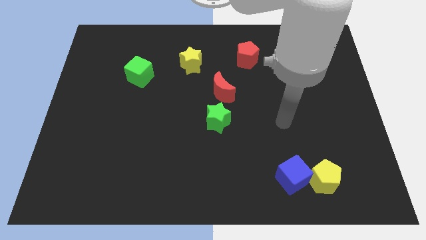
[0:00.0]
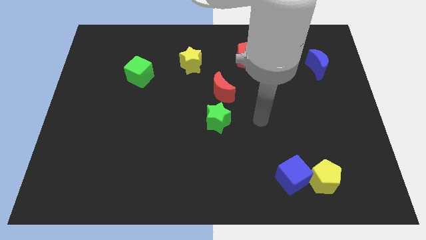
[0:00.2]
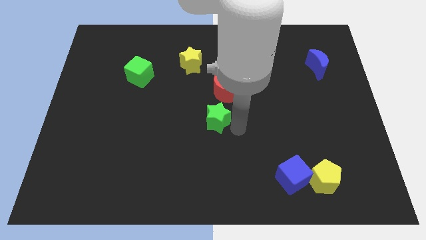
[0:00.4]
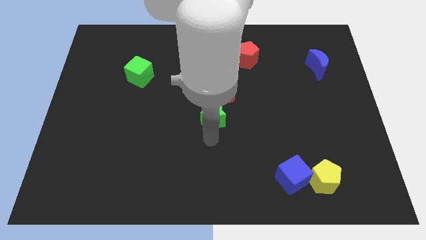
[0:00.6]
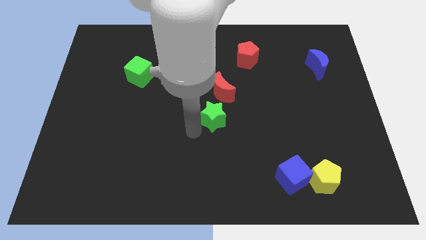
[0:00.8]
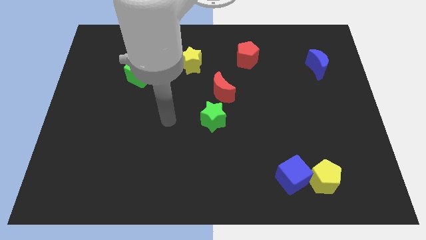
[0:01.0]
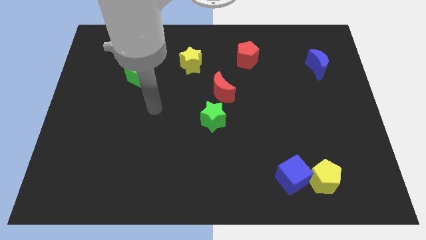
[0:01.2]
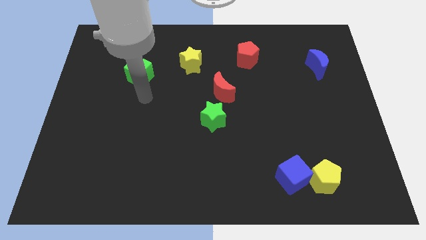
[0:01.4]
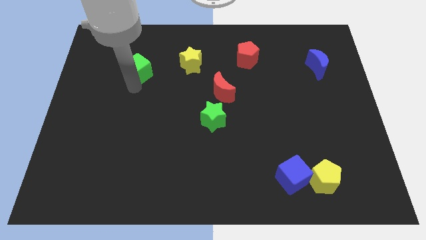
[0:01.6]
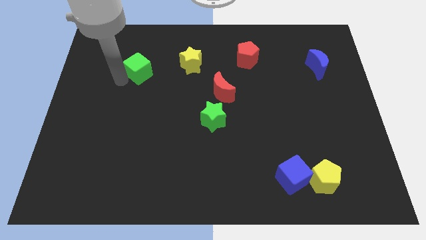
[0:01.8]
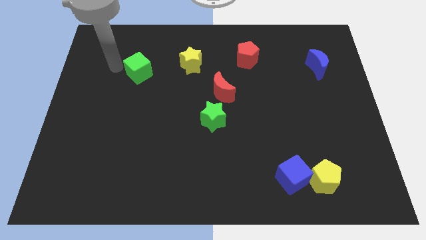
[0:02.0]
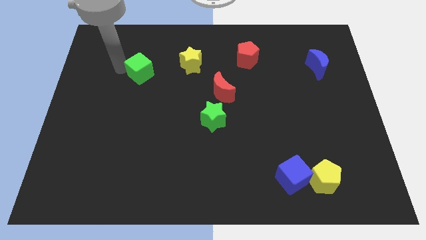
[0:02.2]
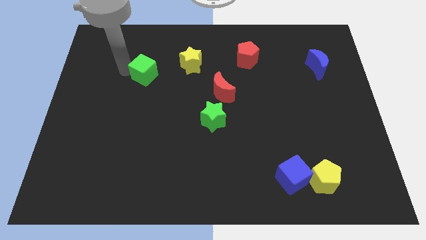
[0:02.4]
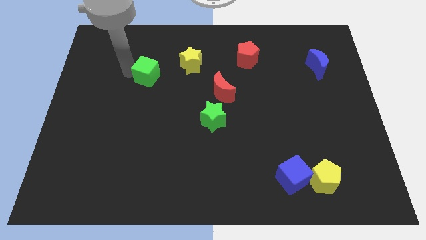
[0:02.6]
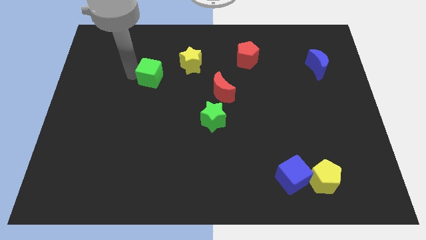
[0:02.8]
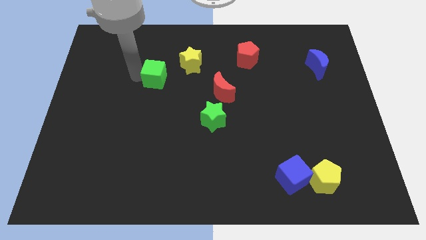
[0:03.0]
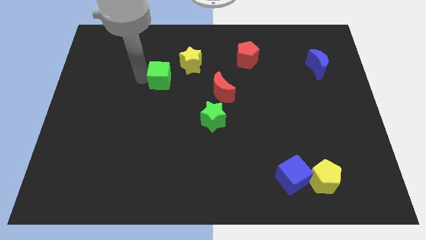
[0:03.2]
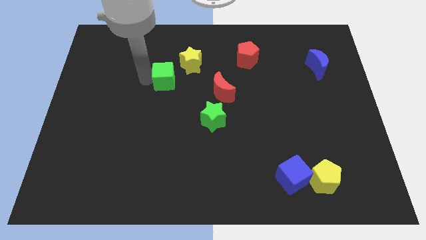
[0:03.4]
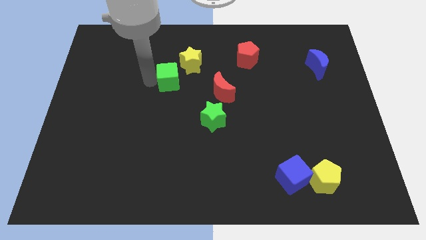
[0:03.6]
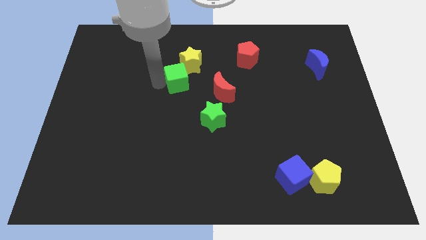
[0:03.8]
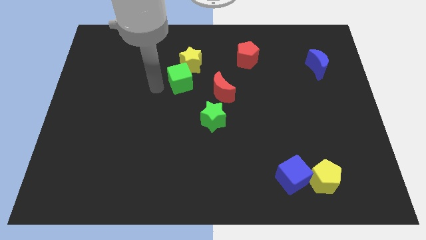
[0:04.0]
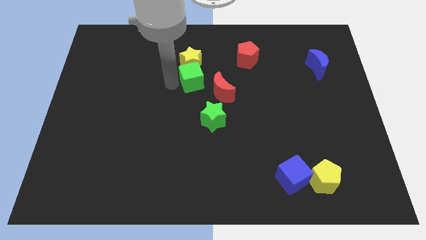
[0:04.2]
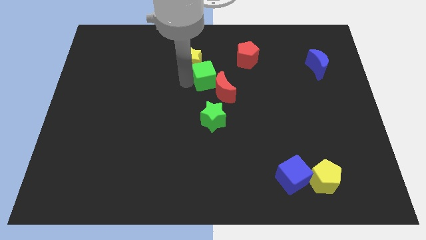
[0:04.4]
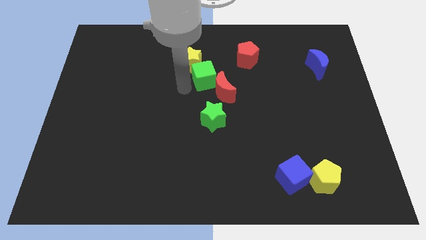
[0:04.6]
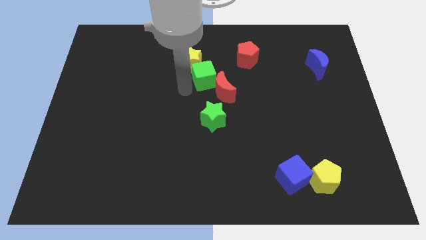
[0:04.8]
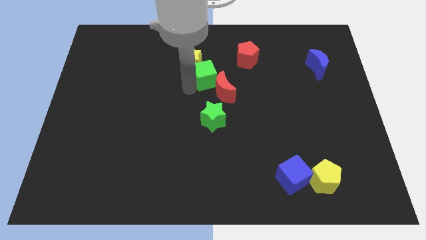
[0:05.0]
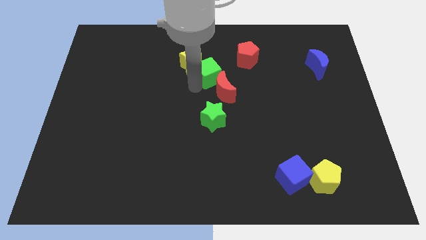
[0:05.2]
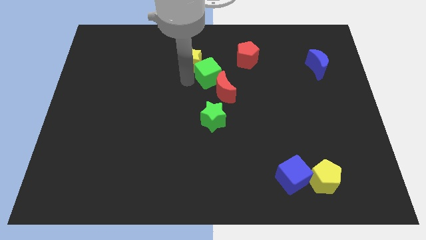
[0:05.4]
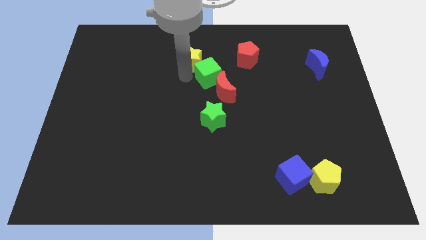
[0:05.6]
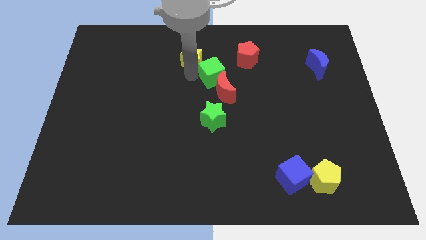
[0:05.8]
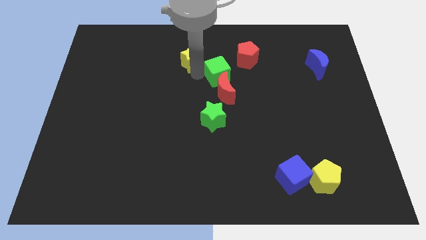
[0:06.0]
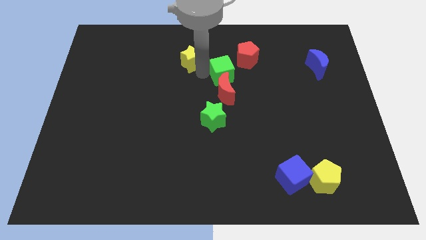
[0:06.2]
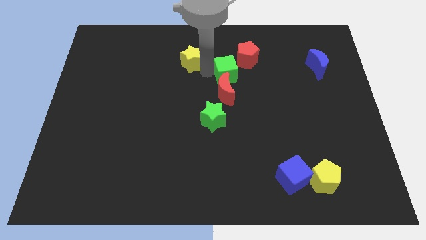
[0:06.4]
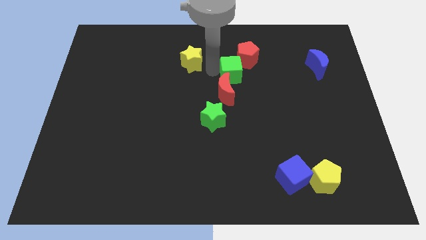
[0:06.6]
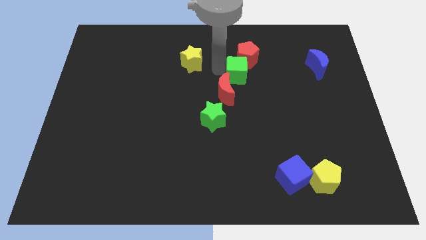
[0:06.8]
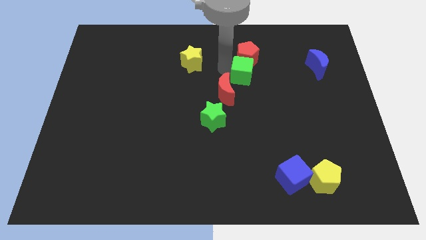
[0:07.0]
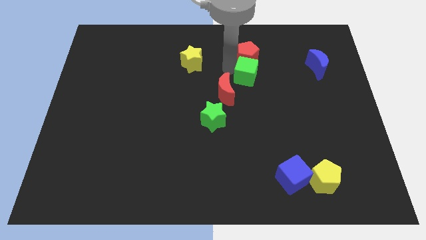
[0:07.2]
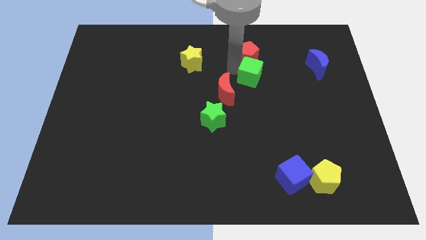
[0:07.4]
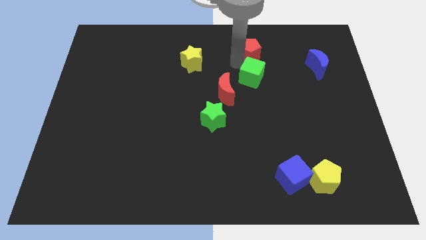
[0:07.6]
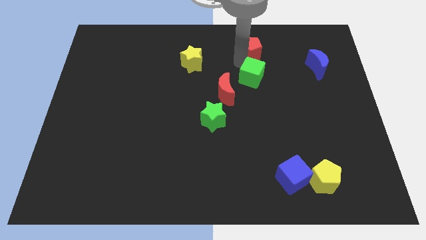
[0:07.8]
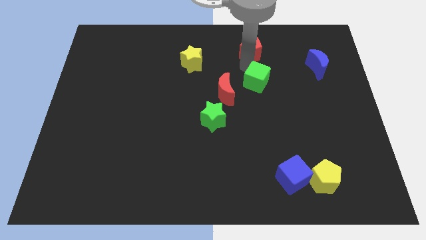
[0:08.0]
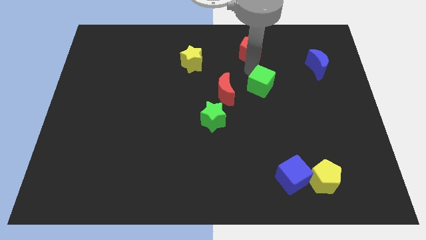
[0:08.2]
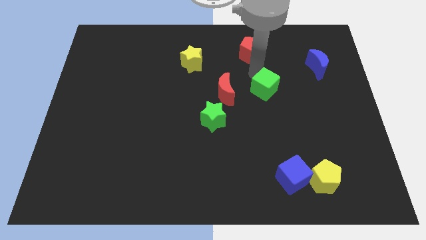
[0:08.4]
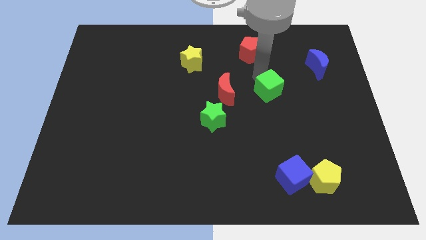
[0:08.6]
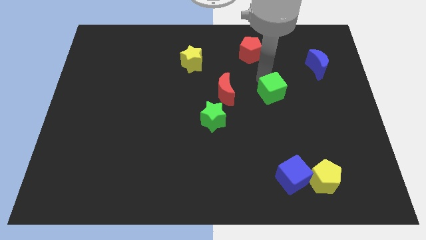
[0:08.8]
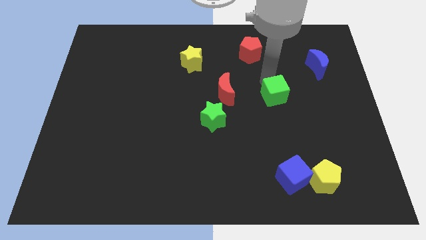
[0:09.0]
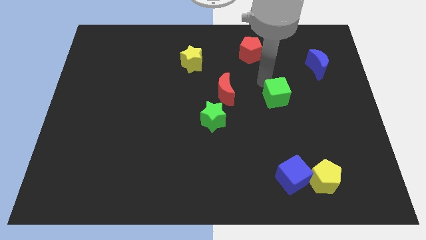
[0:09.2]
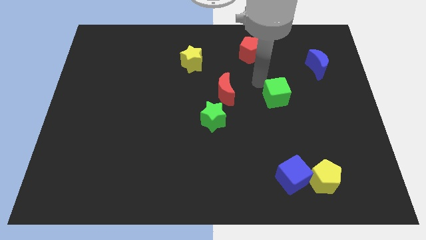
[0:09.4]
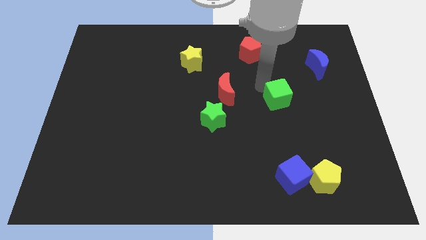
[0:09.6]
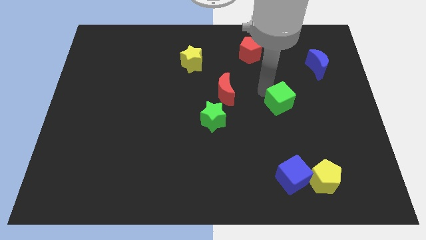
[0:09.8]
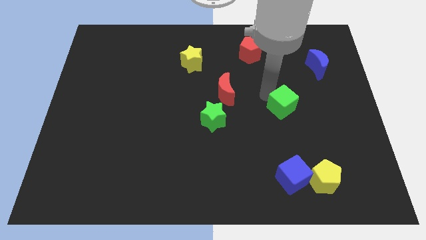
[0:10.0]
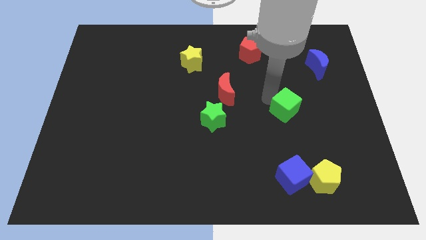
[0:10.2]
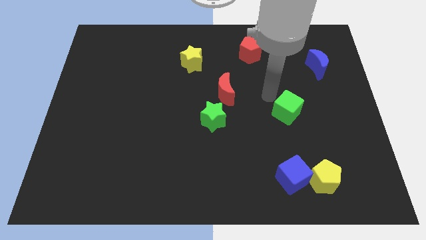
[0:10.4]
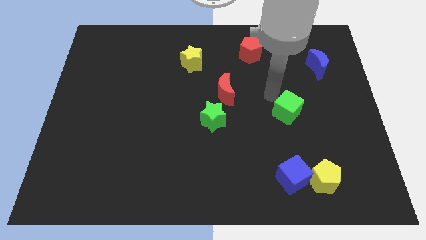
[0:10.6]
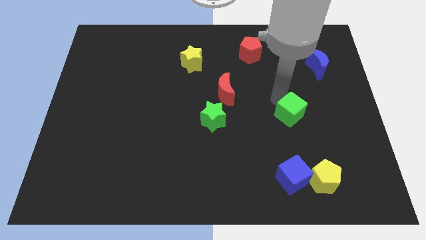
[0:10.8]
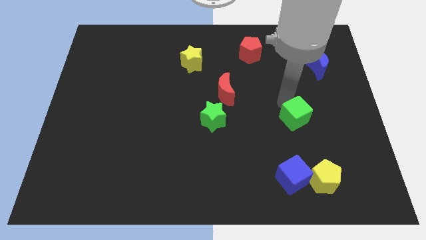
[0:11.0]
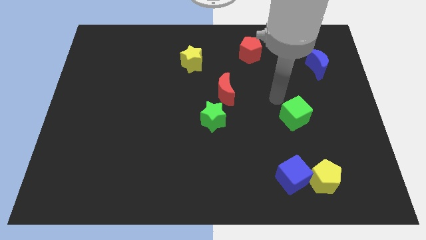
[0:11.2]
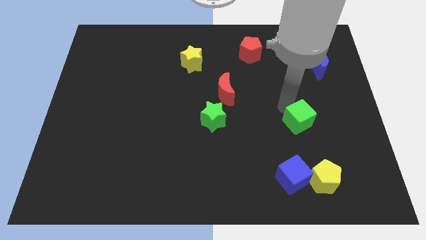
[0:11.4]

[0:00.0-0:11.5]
push the green cube above the yellow pentagon
